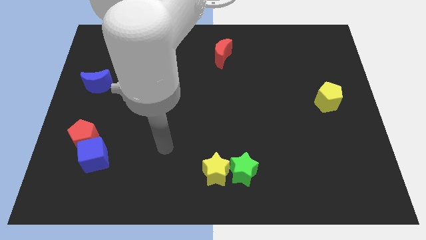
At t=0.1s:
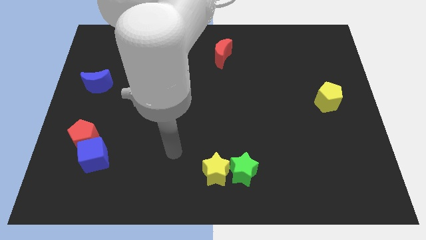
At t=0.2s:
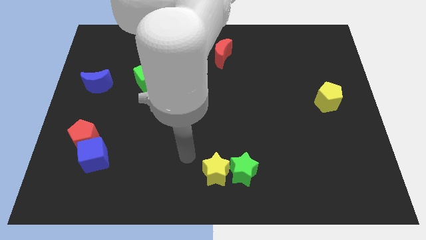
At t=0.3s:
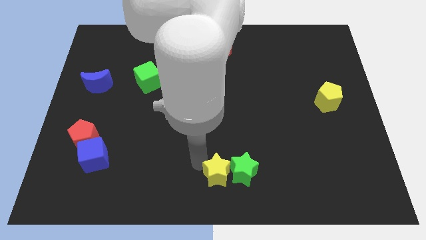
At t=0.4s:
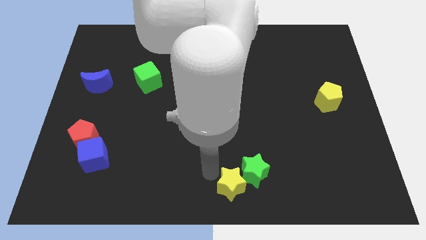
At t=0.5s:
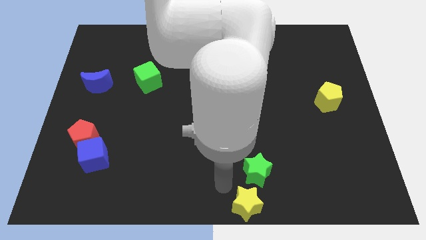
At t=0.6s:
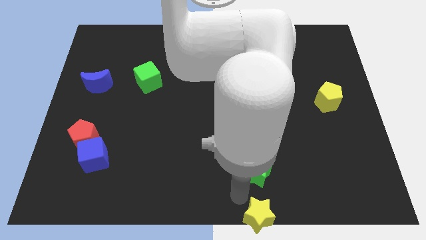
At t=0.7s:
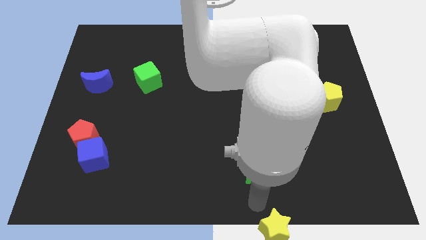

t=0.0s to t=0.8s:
separate the green star from the yellow star

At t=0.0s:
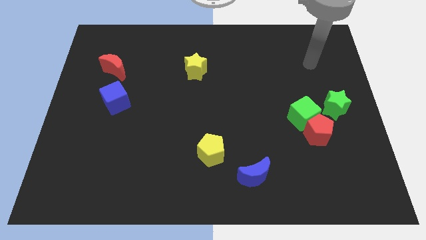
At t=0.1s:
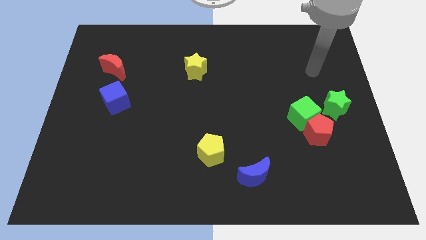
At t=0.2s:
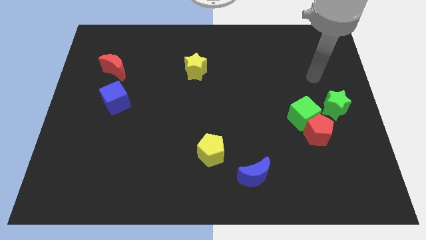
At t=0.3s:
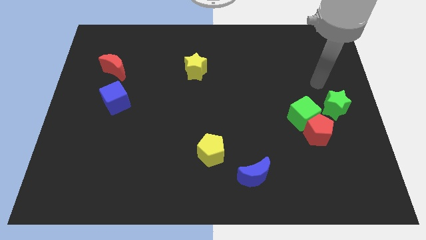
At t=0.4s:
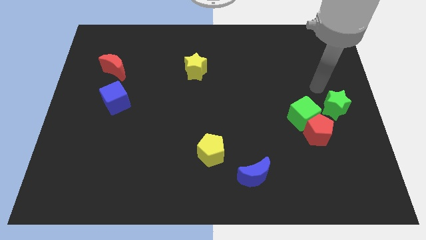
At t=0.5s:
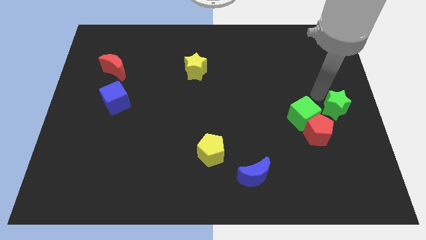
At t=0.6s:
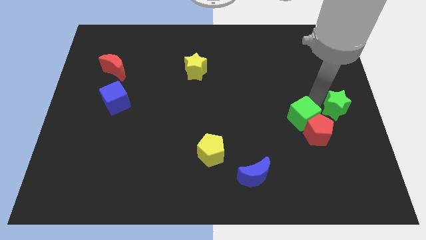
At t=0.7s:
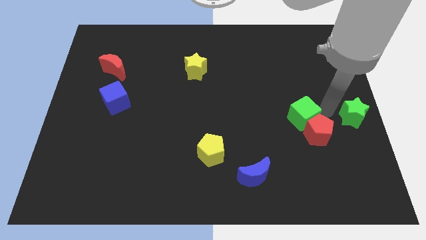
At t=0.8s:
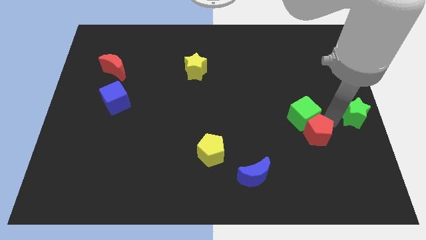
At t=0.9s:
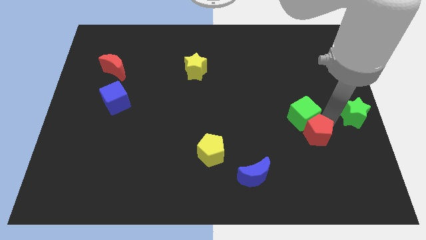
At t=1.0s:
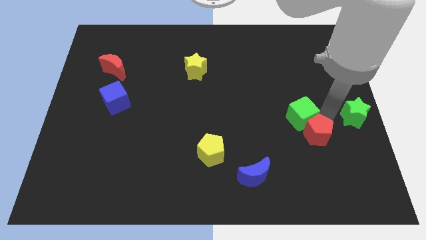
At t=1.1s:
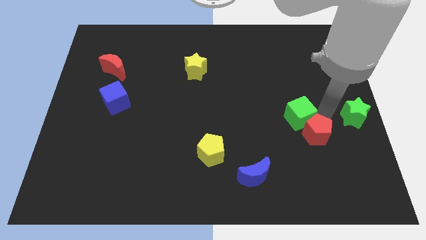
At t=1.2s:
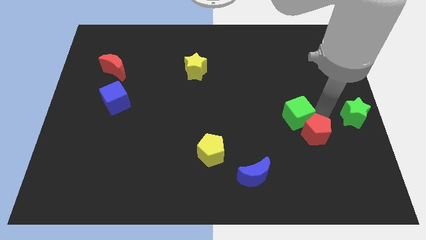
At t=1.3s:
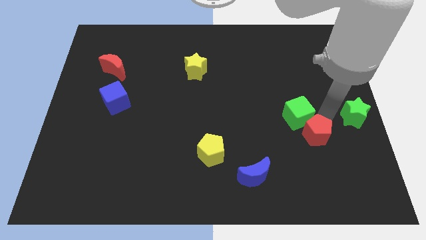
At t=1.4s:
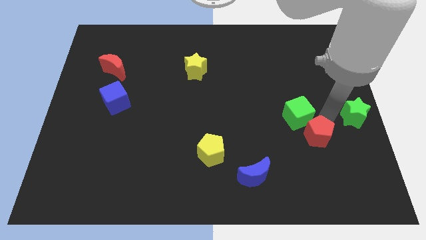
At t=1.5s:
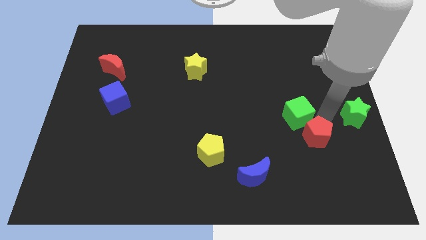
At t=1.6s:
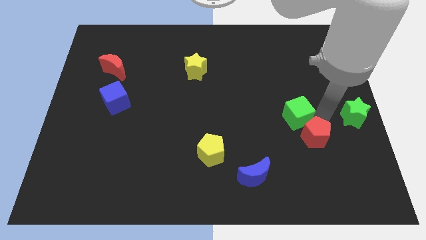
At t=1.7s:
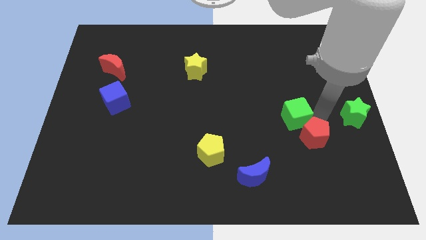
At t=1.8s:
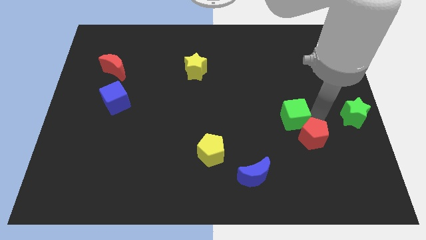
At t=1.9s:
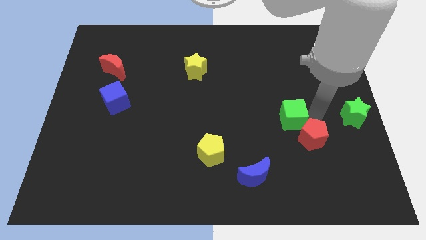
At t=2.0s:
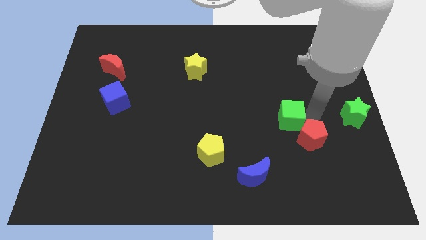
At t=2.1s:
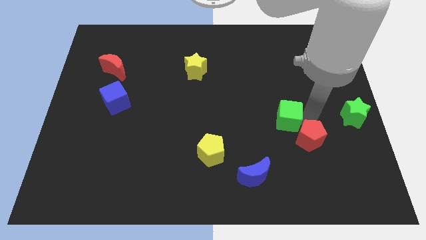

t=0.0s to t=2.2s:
pull the green cube apart from the red pentagon and green star

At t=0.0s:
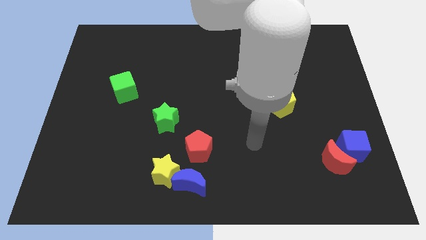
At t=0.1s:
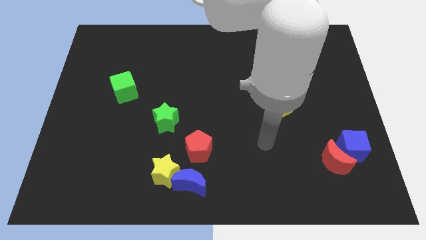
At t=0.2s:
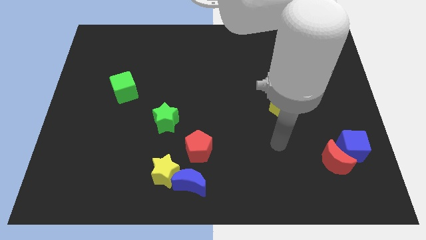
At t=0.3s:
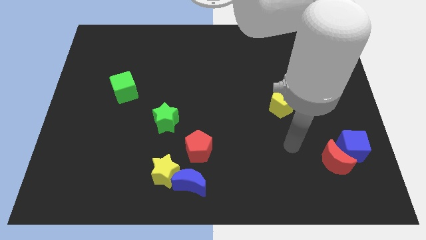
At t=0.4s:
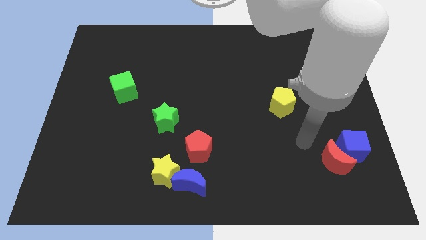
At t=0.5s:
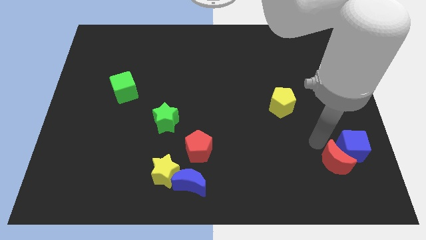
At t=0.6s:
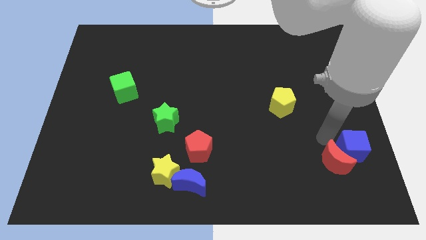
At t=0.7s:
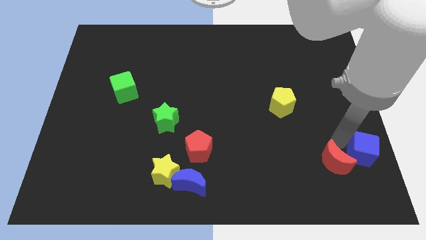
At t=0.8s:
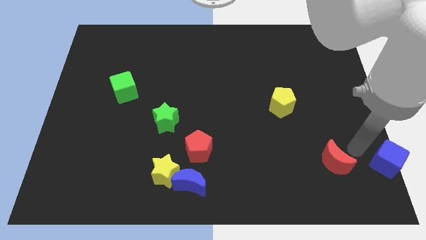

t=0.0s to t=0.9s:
separate the red moon from the blue cube

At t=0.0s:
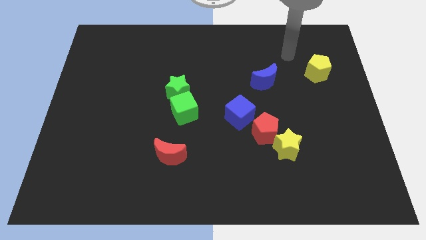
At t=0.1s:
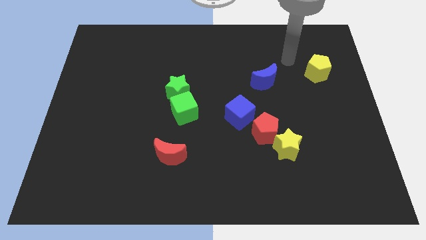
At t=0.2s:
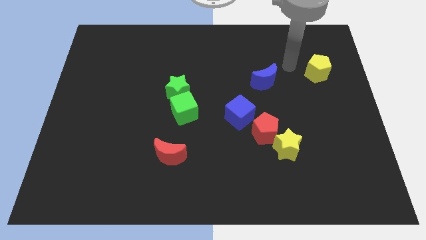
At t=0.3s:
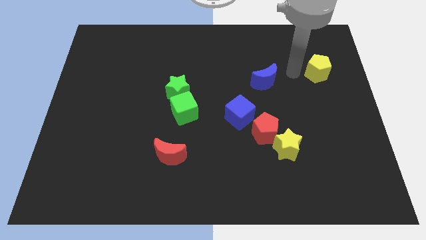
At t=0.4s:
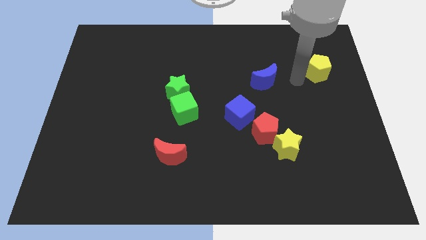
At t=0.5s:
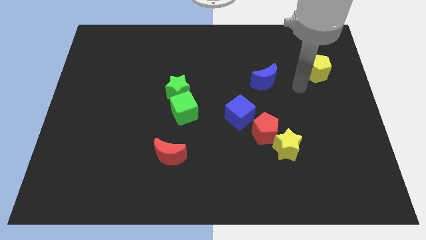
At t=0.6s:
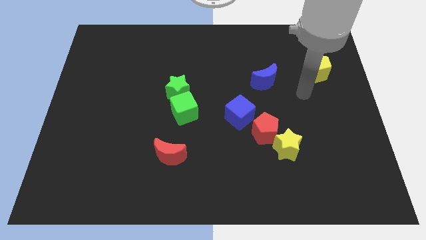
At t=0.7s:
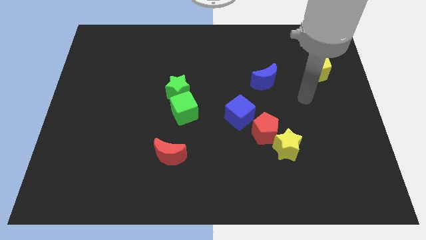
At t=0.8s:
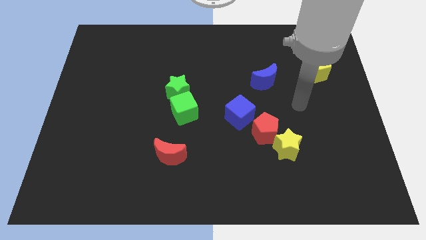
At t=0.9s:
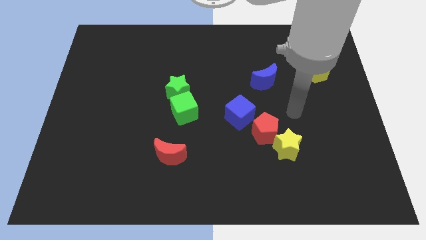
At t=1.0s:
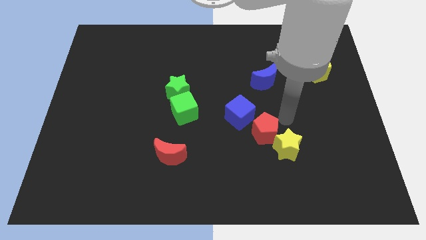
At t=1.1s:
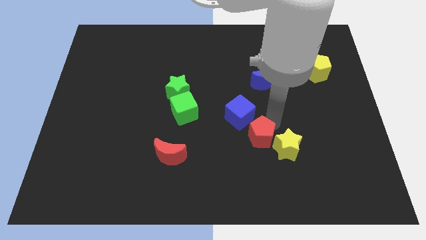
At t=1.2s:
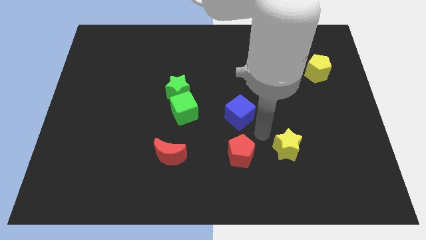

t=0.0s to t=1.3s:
move the yellow star away from the red pentagon

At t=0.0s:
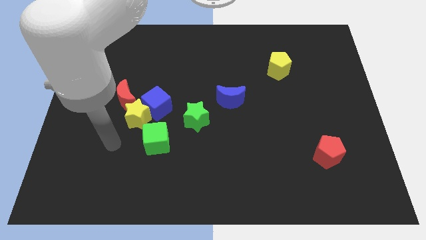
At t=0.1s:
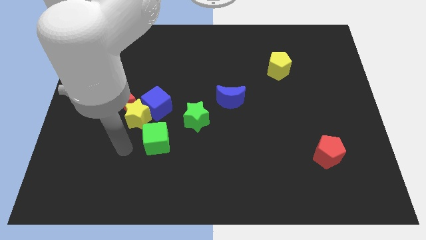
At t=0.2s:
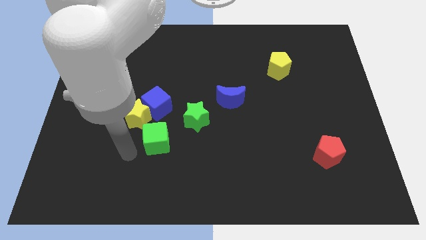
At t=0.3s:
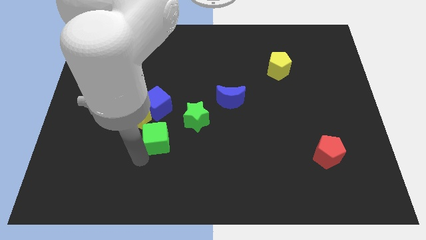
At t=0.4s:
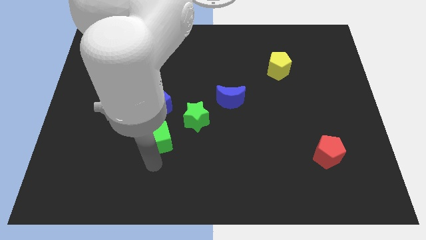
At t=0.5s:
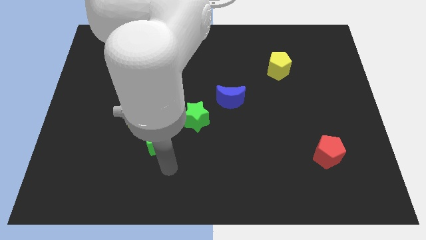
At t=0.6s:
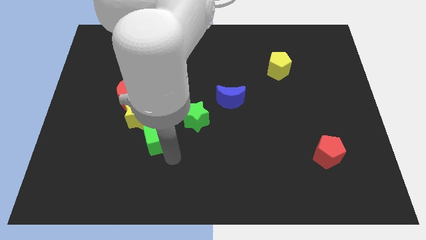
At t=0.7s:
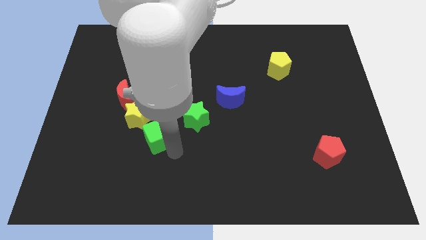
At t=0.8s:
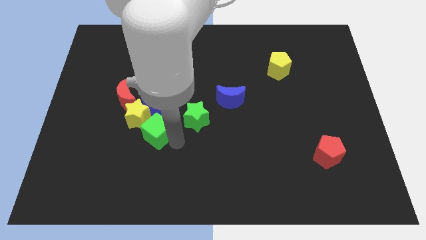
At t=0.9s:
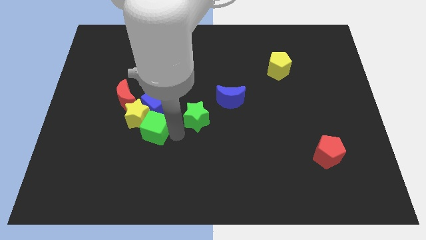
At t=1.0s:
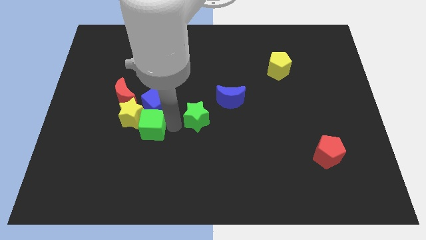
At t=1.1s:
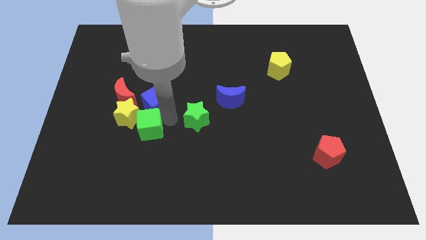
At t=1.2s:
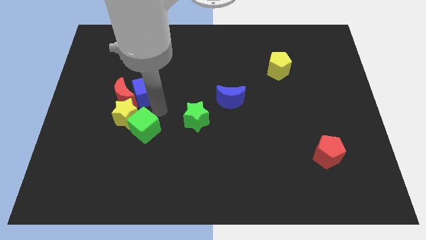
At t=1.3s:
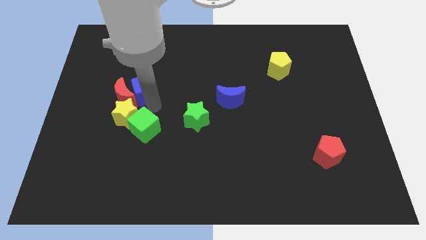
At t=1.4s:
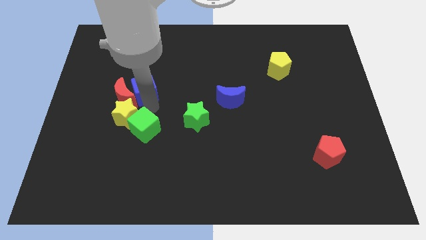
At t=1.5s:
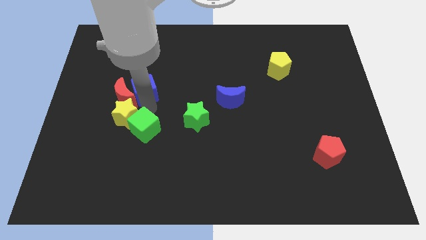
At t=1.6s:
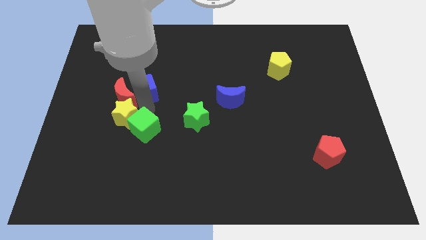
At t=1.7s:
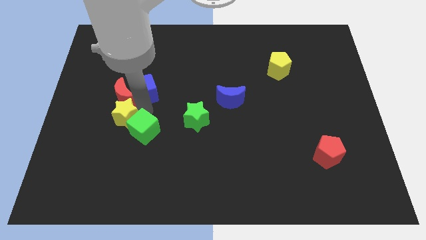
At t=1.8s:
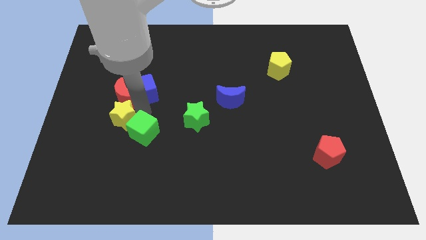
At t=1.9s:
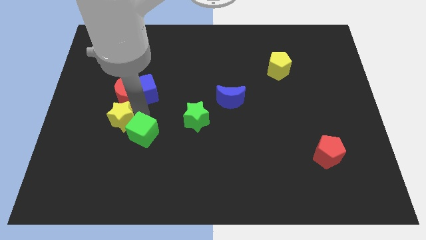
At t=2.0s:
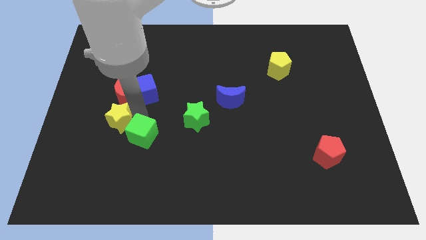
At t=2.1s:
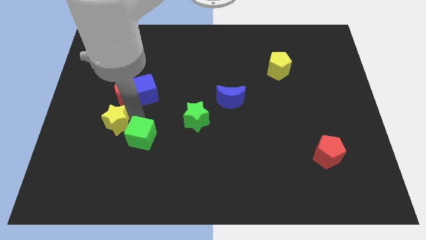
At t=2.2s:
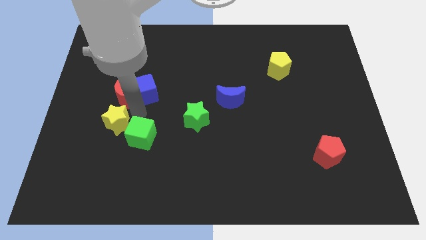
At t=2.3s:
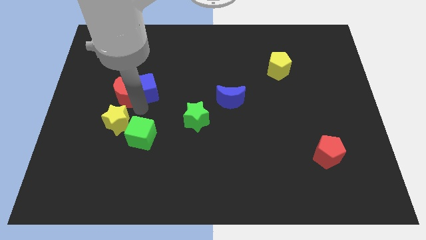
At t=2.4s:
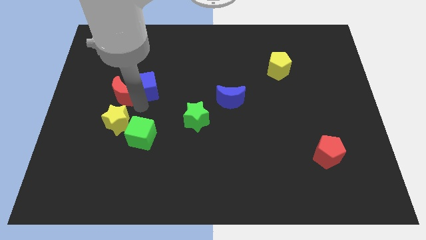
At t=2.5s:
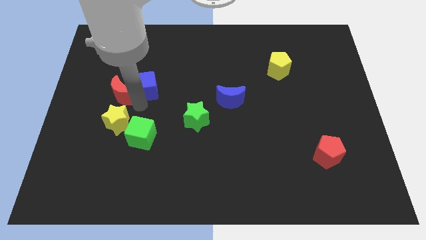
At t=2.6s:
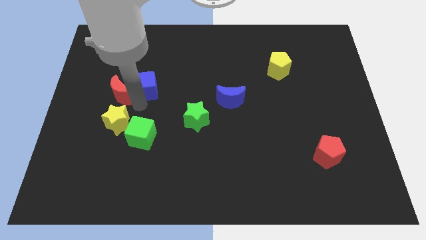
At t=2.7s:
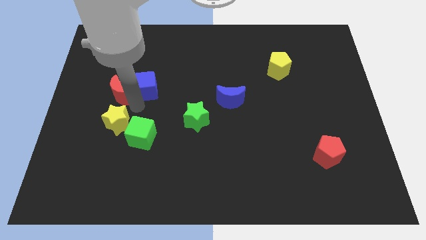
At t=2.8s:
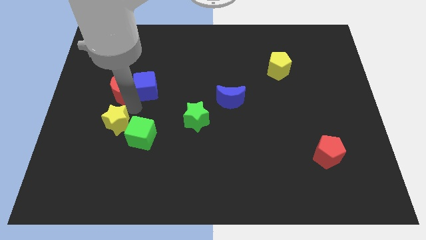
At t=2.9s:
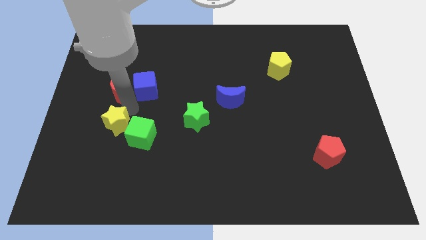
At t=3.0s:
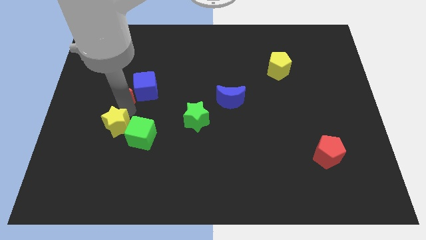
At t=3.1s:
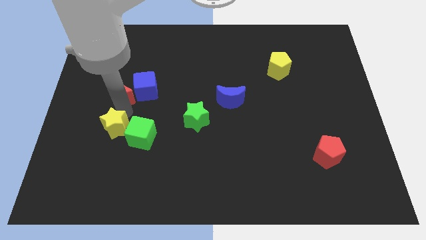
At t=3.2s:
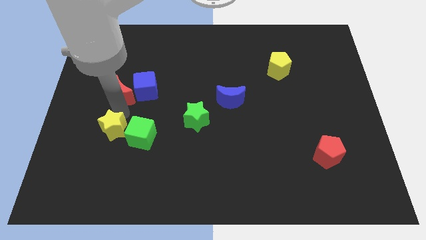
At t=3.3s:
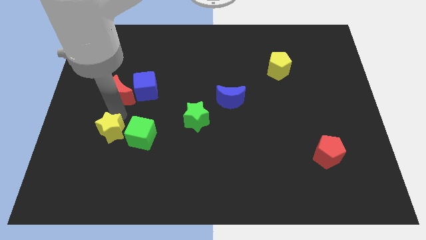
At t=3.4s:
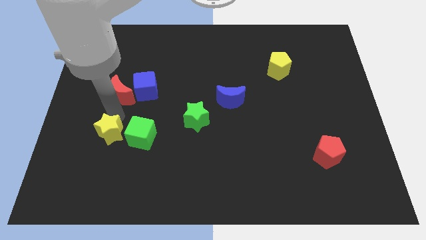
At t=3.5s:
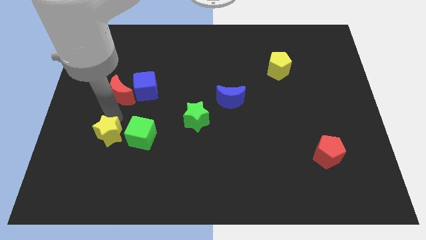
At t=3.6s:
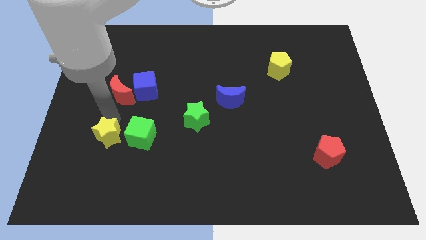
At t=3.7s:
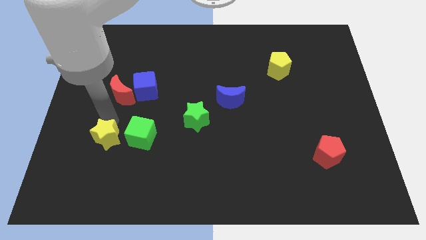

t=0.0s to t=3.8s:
move the yellow star away from the blue cube, red moon, and green cube

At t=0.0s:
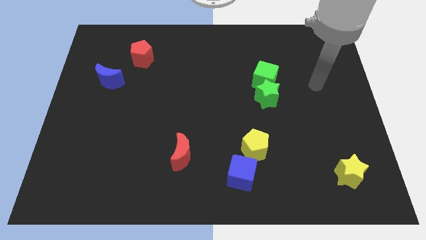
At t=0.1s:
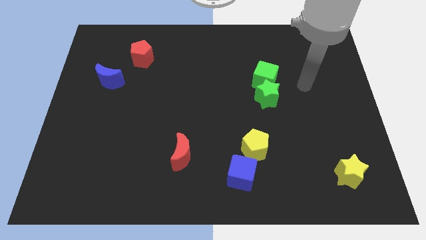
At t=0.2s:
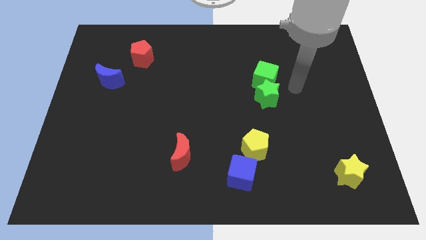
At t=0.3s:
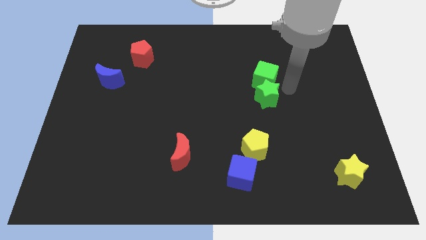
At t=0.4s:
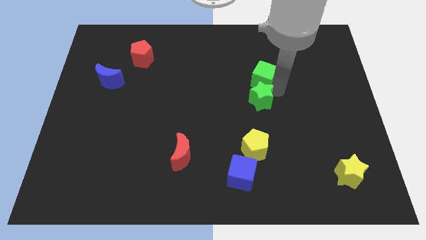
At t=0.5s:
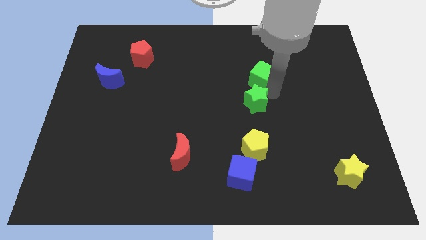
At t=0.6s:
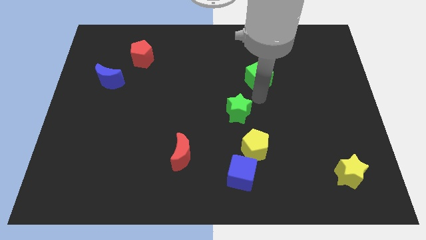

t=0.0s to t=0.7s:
separate the green cube from the green star
